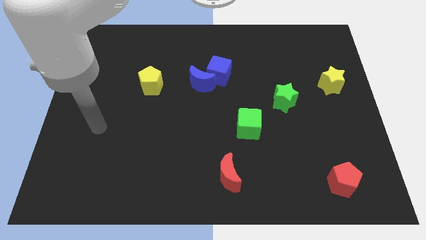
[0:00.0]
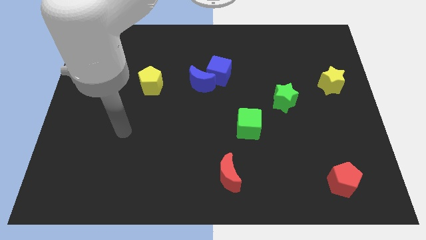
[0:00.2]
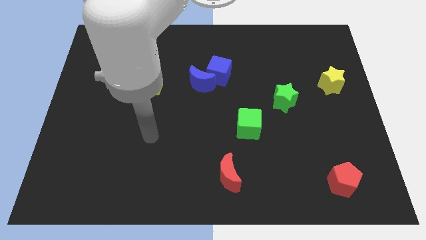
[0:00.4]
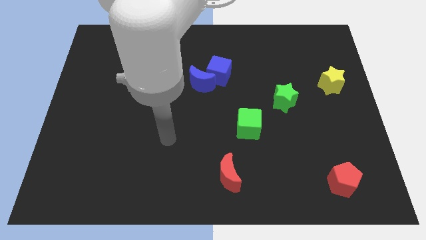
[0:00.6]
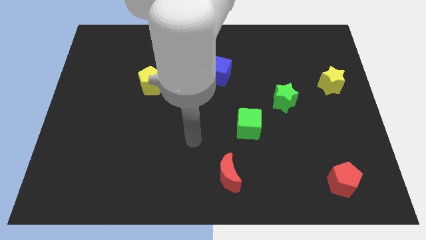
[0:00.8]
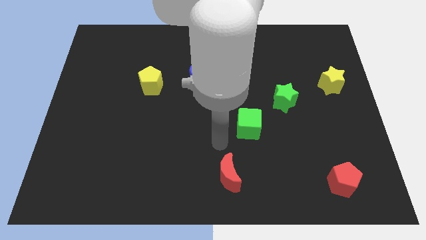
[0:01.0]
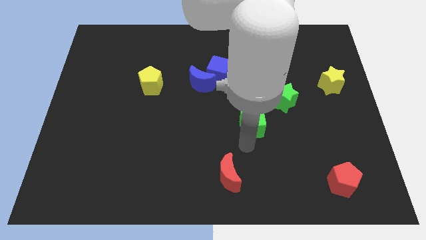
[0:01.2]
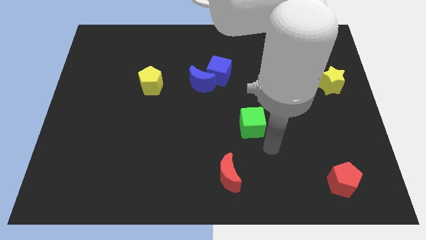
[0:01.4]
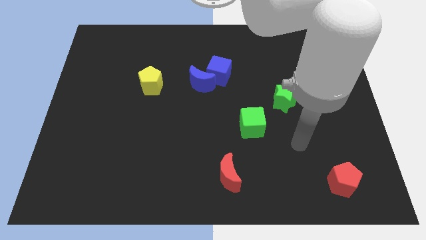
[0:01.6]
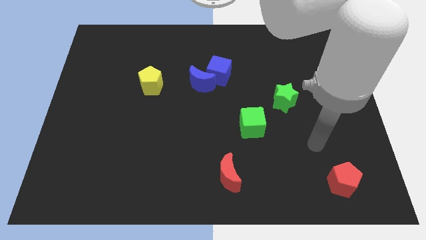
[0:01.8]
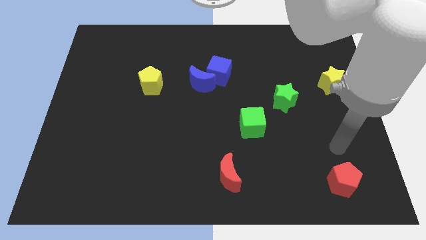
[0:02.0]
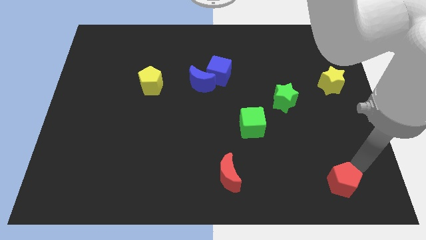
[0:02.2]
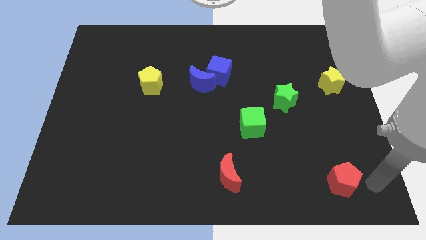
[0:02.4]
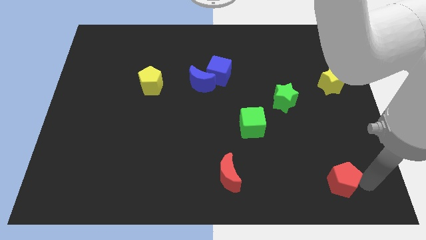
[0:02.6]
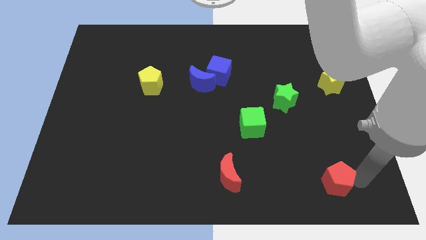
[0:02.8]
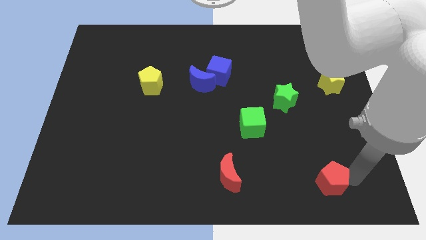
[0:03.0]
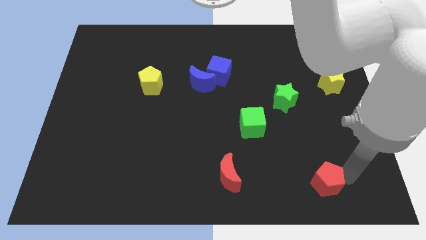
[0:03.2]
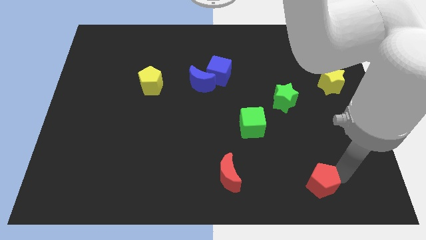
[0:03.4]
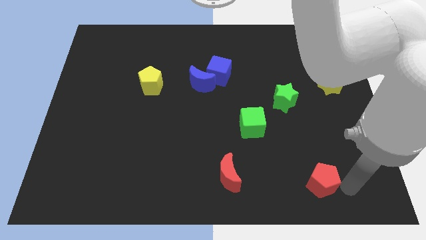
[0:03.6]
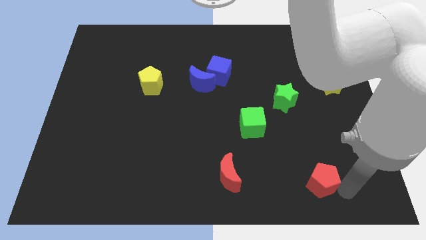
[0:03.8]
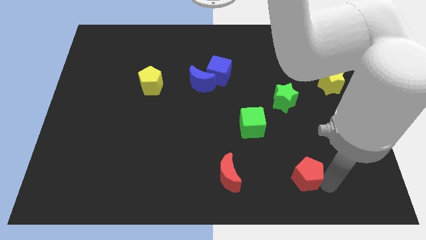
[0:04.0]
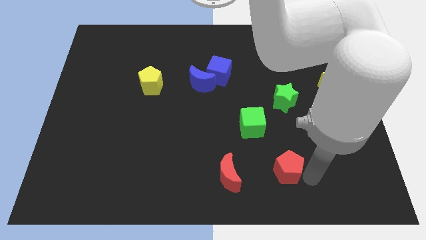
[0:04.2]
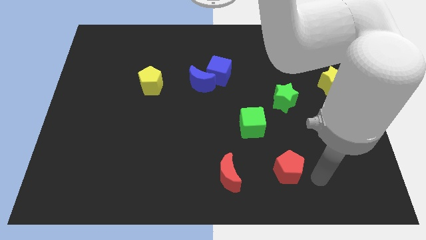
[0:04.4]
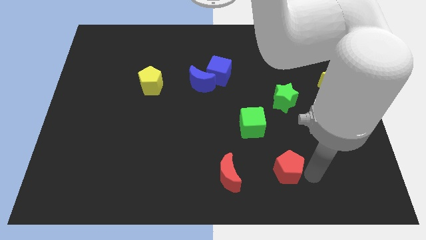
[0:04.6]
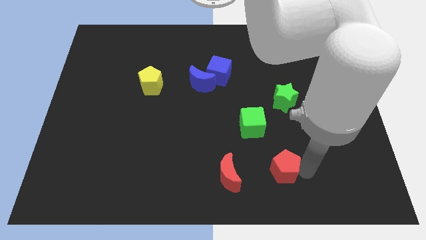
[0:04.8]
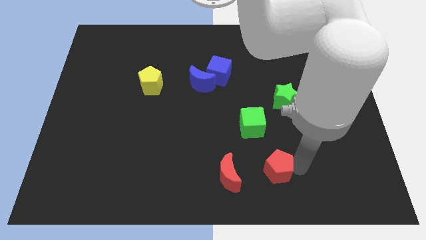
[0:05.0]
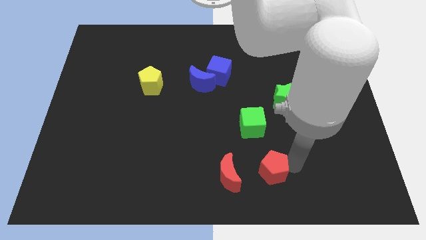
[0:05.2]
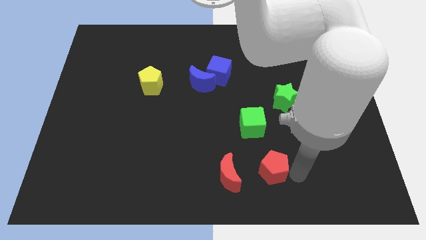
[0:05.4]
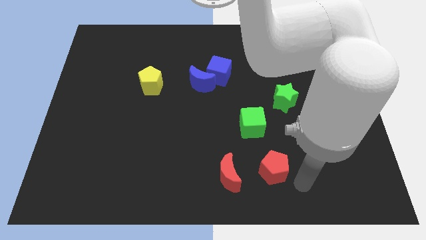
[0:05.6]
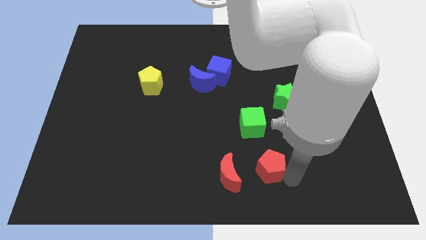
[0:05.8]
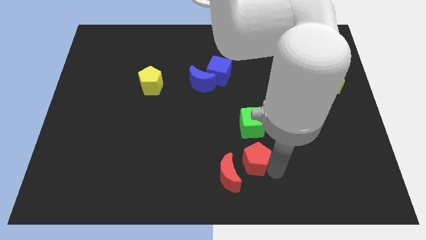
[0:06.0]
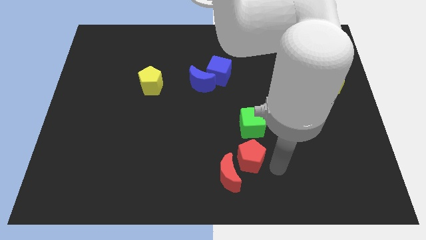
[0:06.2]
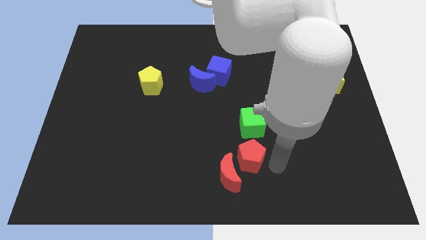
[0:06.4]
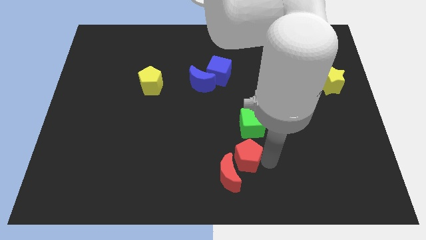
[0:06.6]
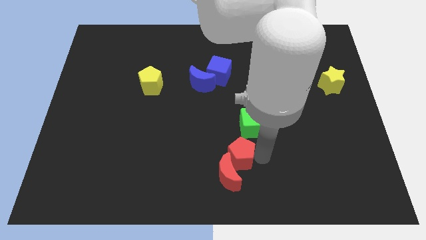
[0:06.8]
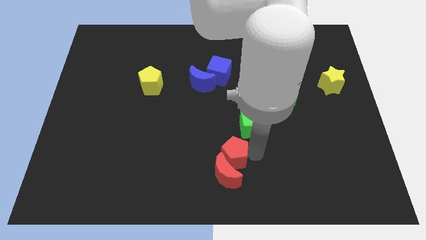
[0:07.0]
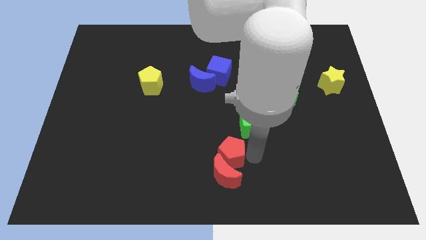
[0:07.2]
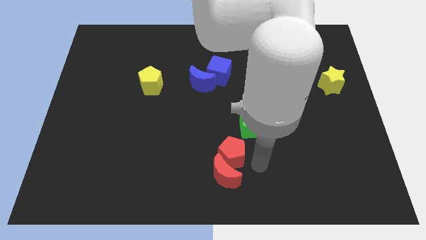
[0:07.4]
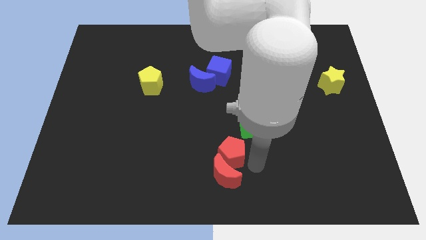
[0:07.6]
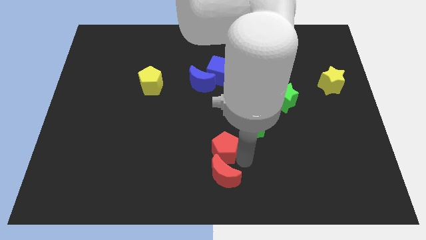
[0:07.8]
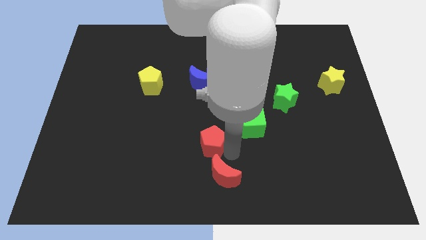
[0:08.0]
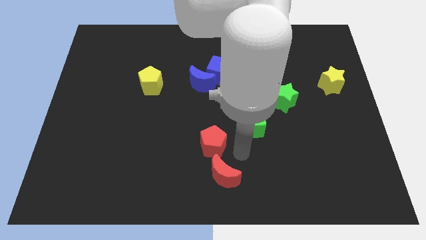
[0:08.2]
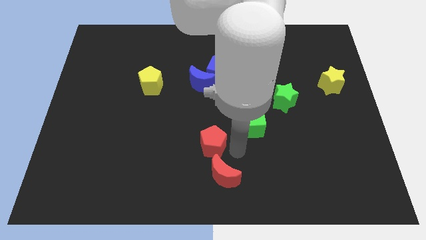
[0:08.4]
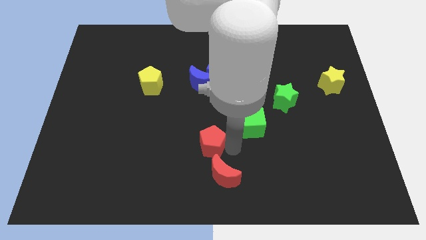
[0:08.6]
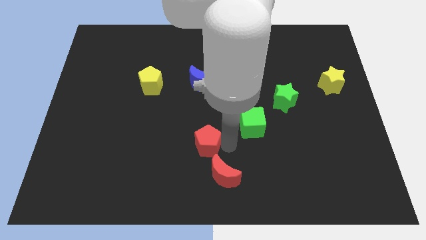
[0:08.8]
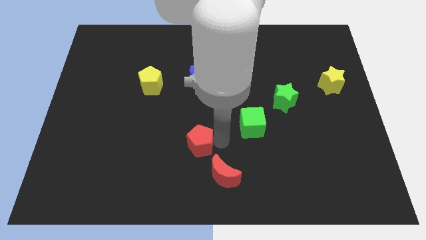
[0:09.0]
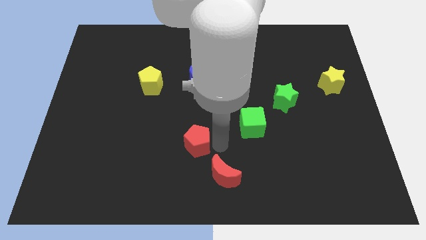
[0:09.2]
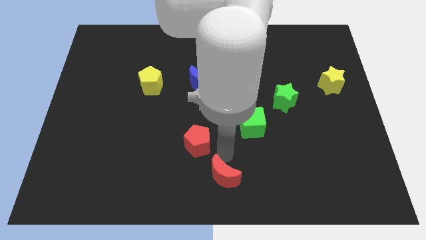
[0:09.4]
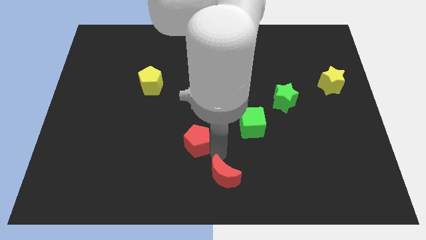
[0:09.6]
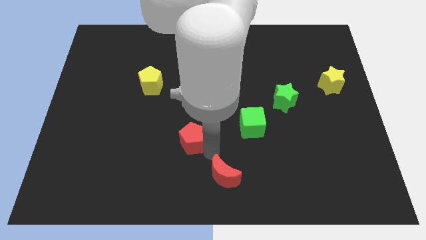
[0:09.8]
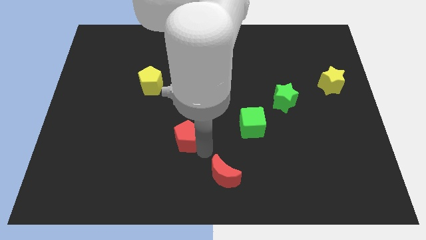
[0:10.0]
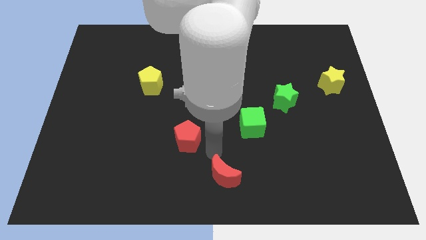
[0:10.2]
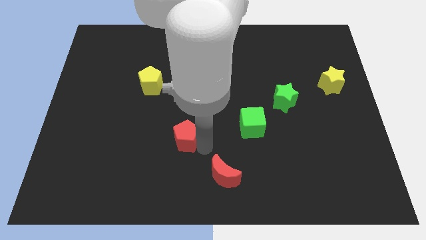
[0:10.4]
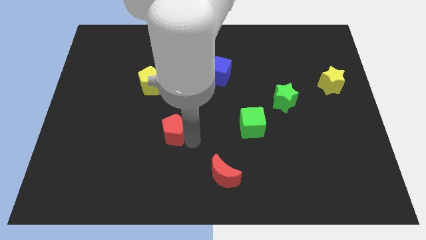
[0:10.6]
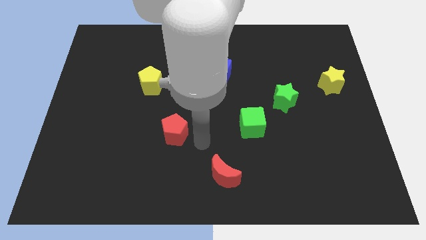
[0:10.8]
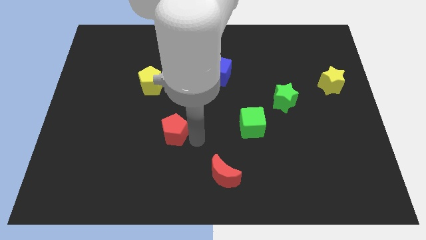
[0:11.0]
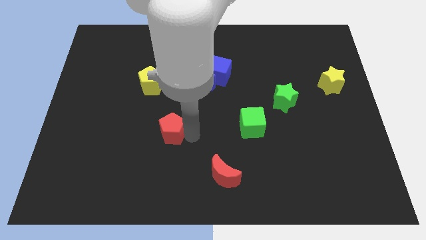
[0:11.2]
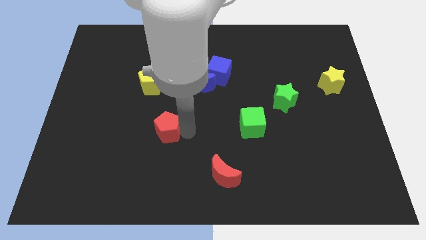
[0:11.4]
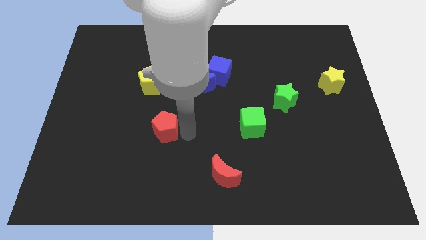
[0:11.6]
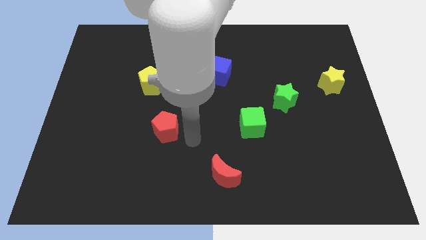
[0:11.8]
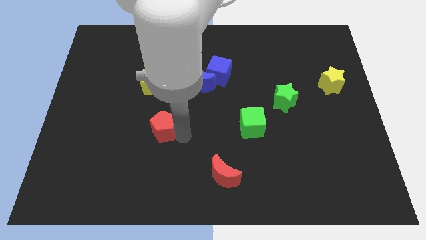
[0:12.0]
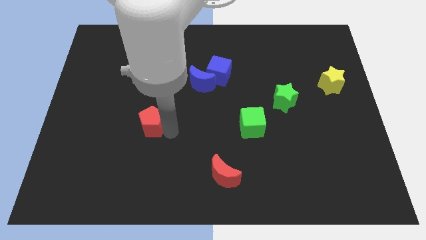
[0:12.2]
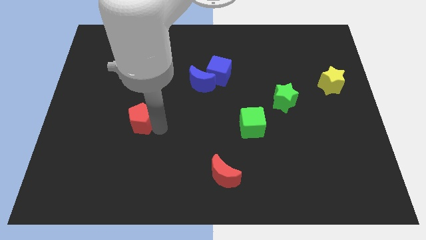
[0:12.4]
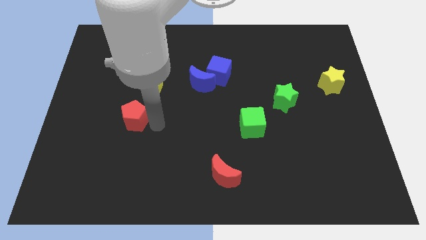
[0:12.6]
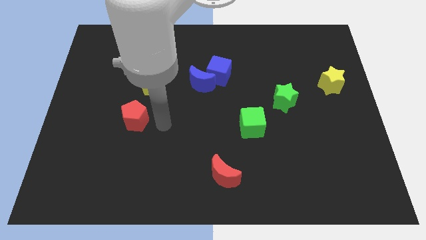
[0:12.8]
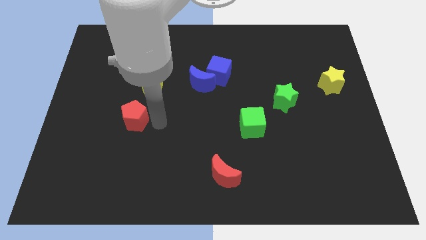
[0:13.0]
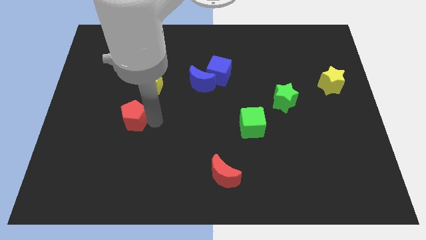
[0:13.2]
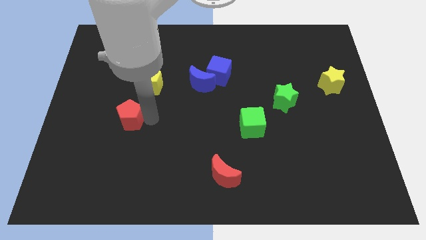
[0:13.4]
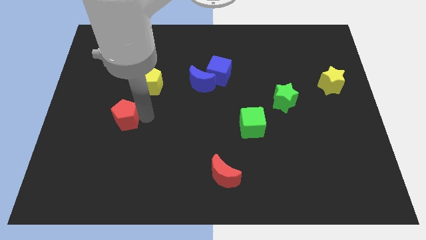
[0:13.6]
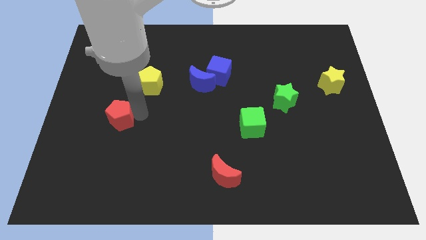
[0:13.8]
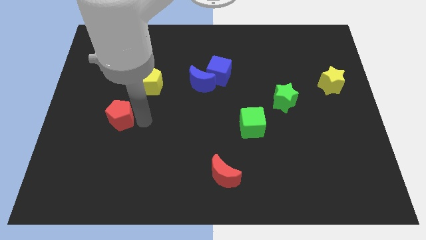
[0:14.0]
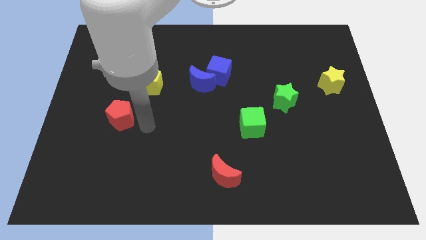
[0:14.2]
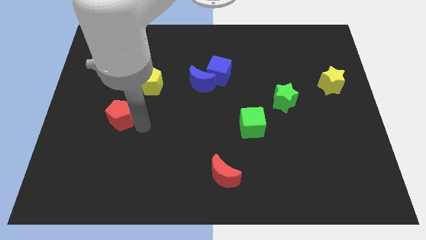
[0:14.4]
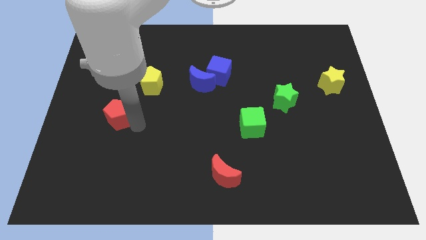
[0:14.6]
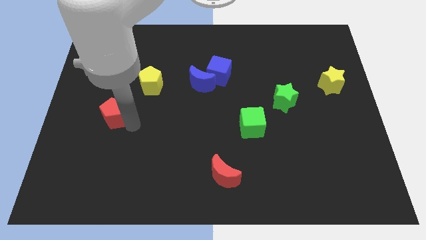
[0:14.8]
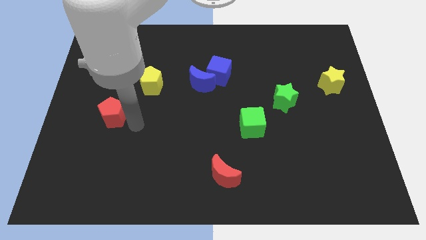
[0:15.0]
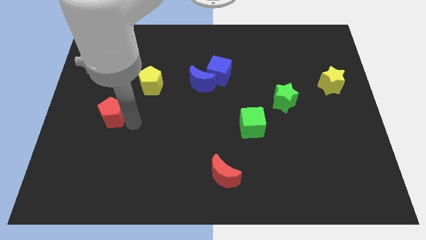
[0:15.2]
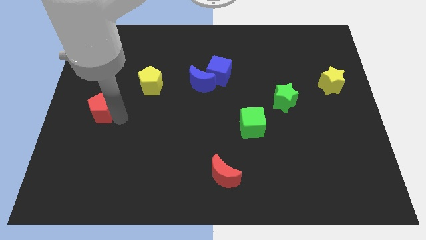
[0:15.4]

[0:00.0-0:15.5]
move the red pentagon to the left side

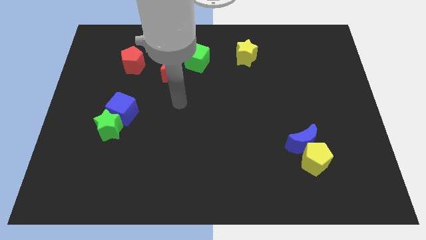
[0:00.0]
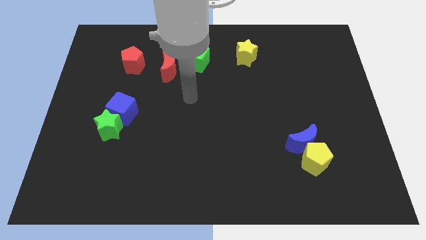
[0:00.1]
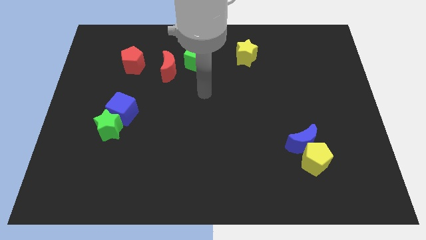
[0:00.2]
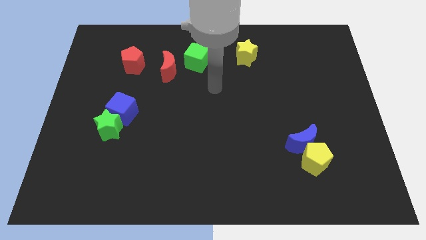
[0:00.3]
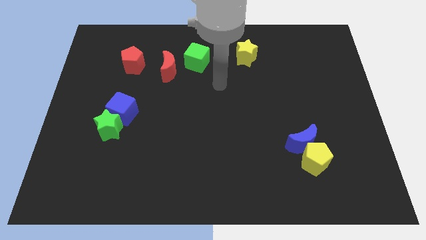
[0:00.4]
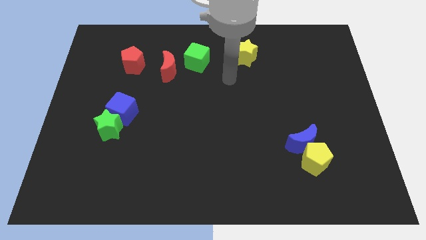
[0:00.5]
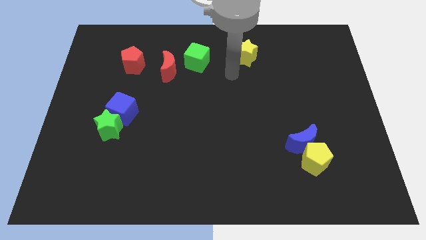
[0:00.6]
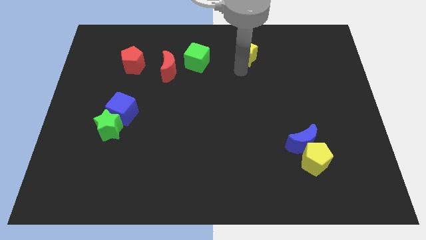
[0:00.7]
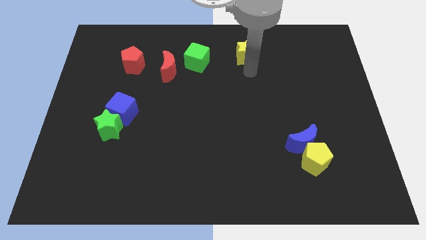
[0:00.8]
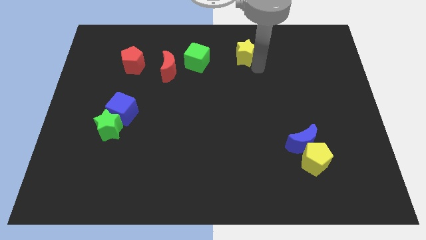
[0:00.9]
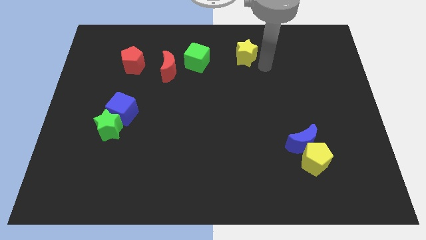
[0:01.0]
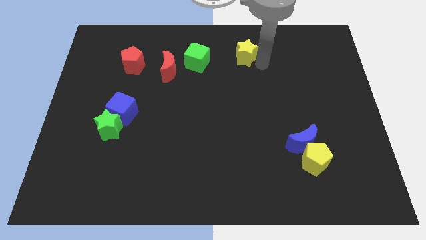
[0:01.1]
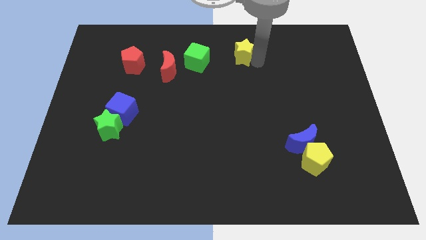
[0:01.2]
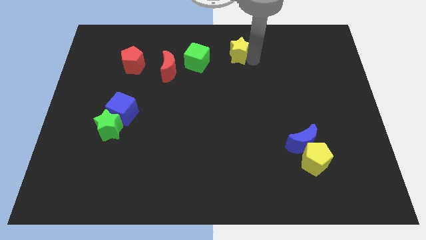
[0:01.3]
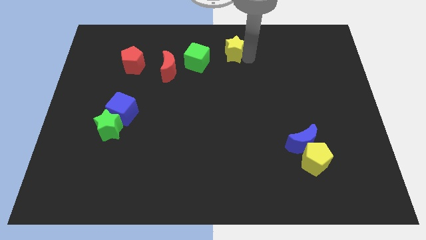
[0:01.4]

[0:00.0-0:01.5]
slide the yellow star to the top side
